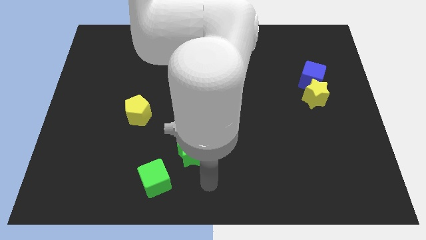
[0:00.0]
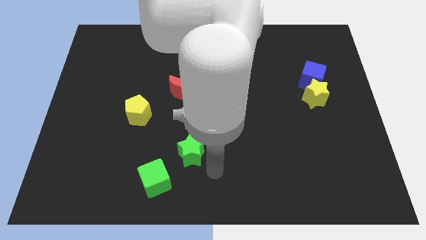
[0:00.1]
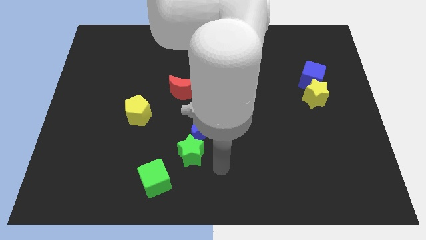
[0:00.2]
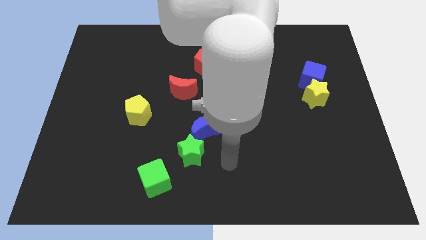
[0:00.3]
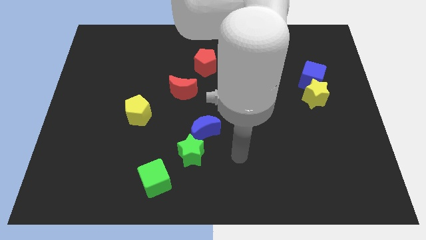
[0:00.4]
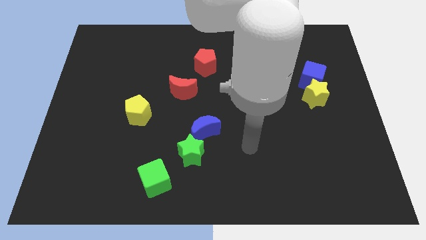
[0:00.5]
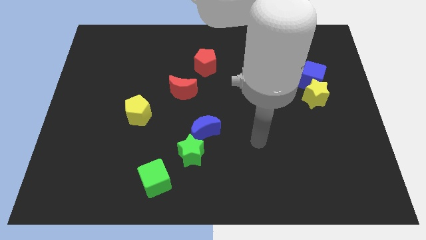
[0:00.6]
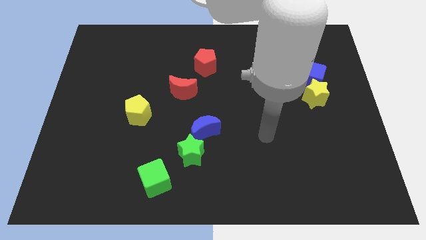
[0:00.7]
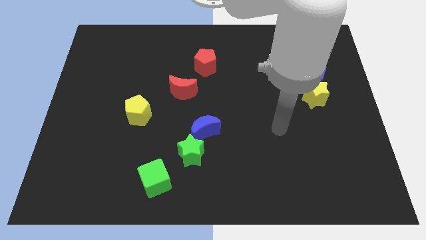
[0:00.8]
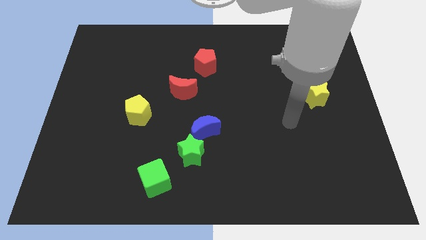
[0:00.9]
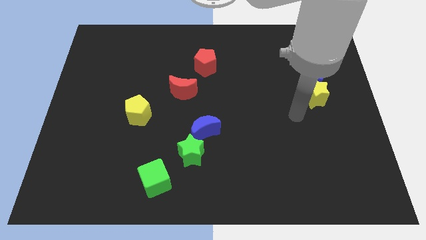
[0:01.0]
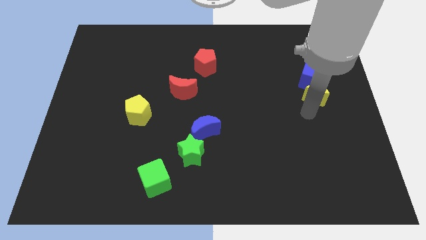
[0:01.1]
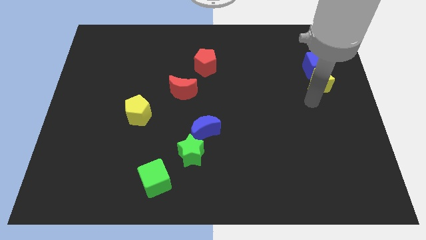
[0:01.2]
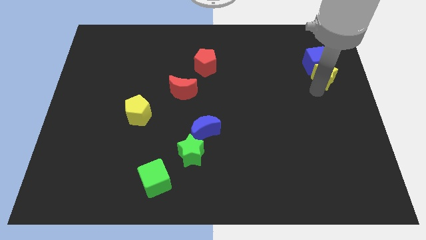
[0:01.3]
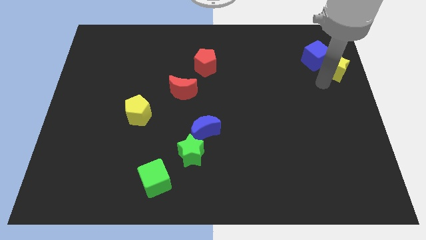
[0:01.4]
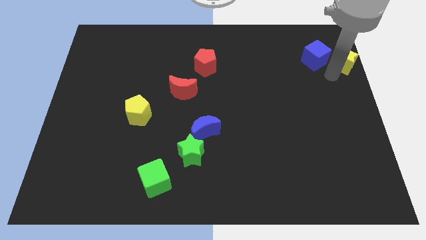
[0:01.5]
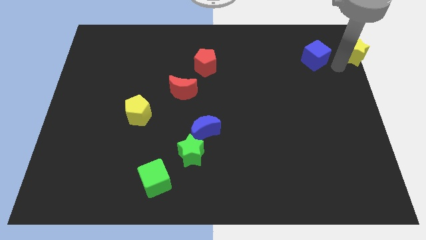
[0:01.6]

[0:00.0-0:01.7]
move the blue cube away from the yellow star

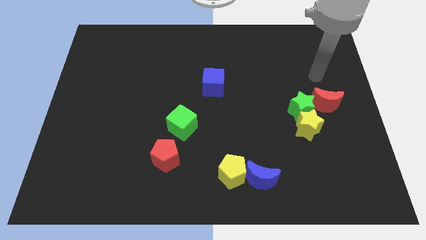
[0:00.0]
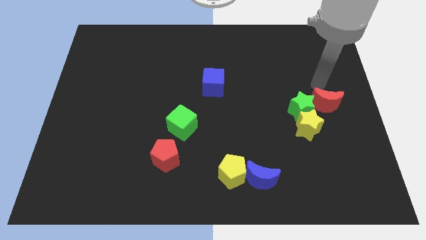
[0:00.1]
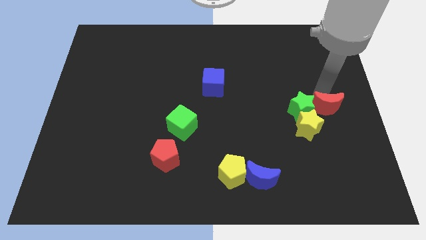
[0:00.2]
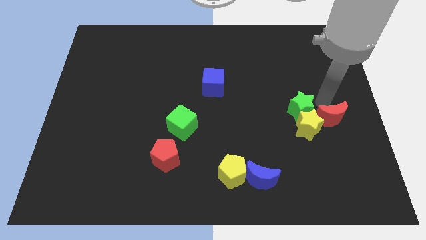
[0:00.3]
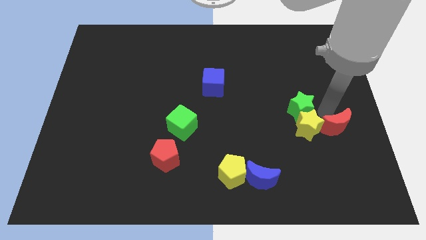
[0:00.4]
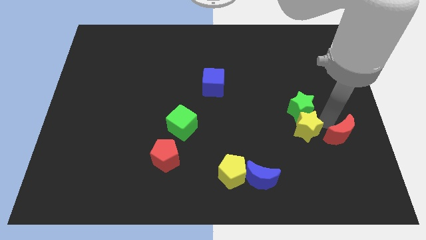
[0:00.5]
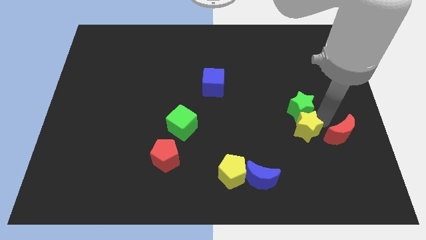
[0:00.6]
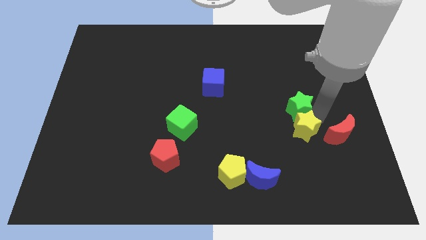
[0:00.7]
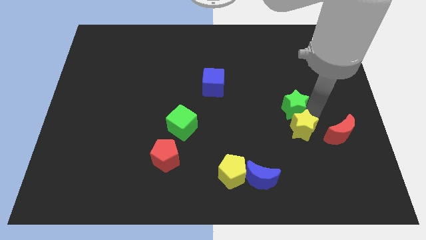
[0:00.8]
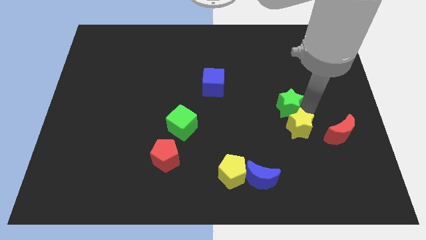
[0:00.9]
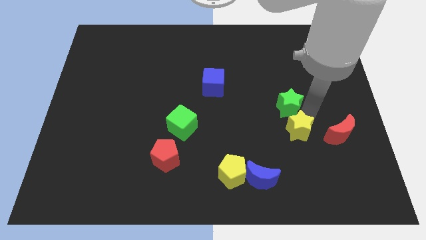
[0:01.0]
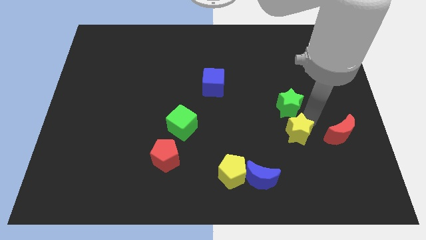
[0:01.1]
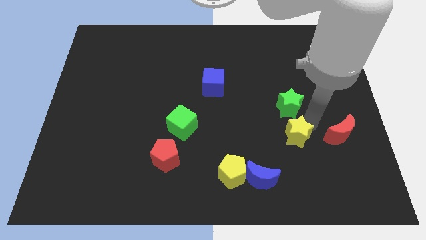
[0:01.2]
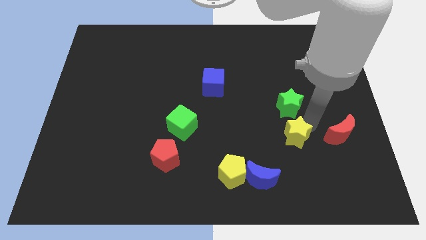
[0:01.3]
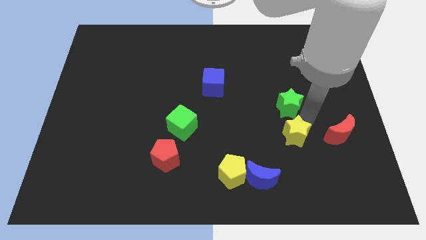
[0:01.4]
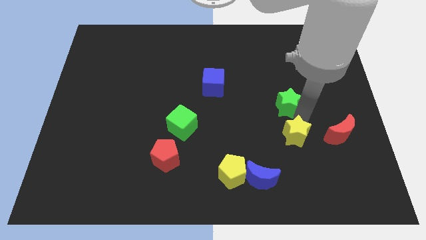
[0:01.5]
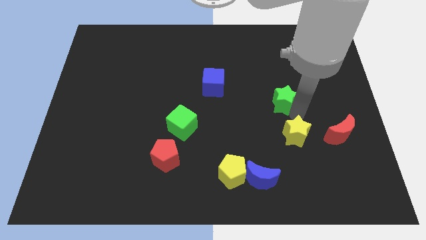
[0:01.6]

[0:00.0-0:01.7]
pull the green star apart from the yellow star and red moon

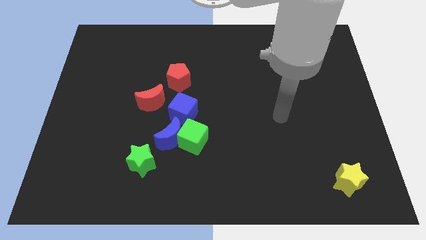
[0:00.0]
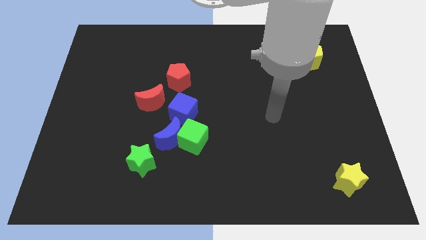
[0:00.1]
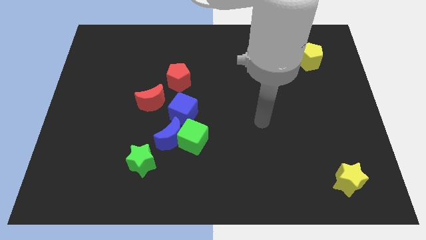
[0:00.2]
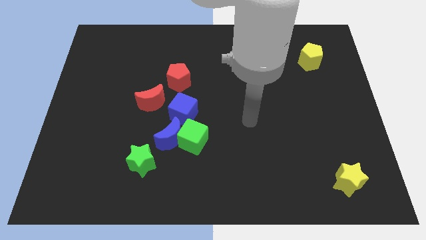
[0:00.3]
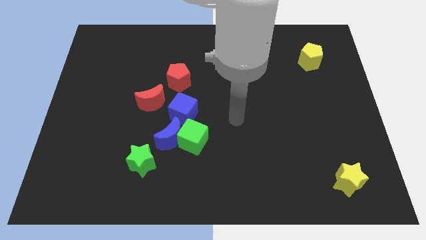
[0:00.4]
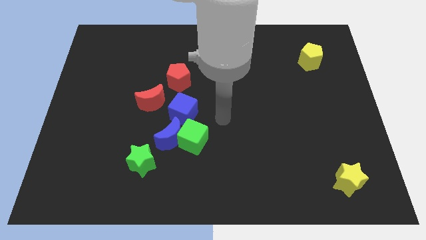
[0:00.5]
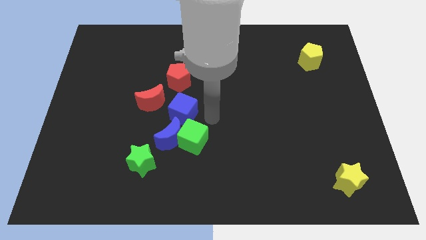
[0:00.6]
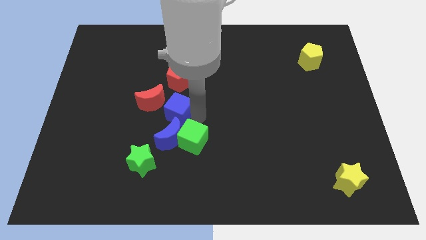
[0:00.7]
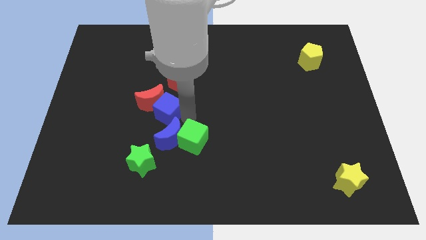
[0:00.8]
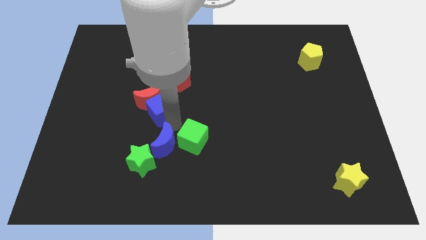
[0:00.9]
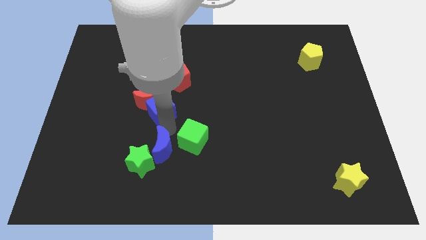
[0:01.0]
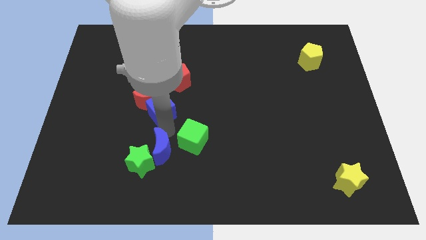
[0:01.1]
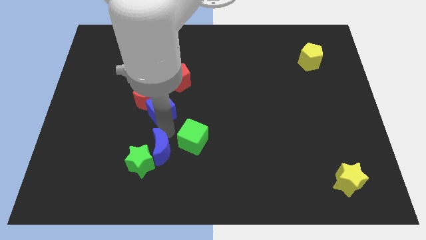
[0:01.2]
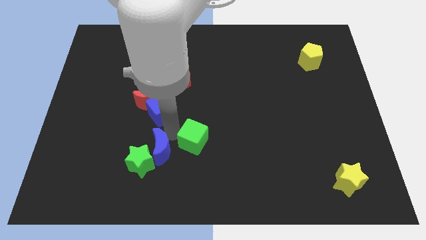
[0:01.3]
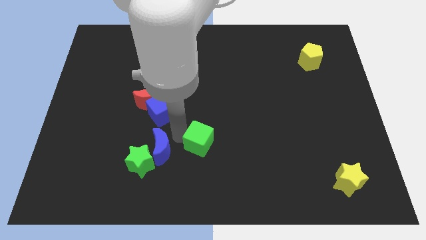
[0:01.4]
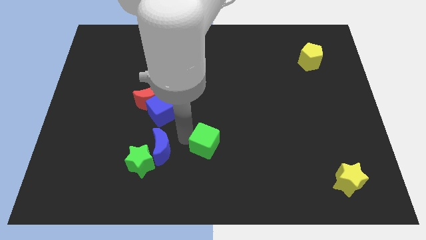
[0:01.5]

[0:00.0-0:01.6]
pull the green cube apart from the blue moon and blue cube

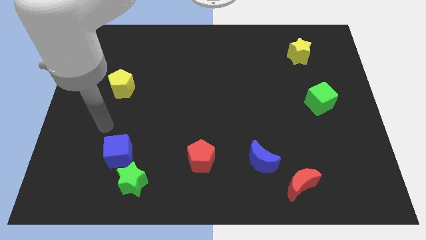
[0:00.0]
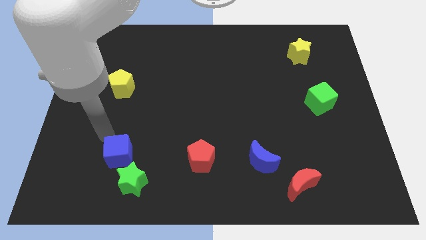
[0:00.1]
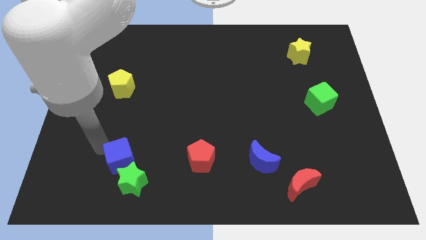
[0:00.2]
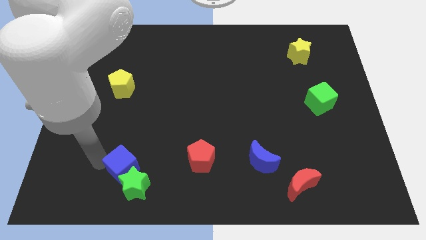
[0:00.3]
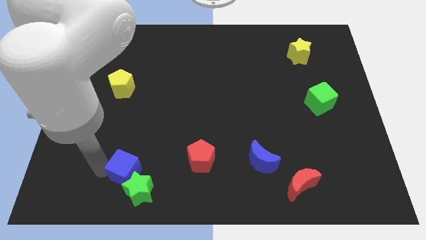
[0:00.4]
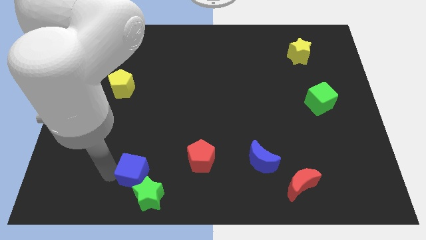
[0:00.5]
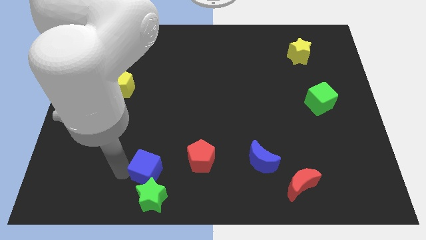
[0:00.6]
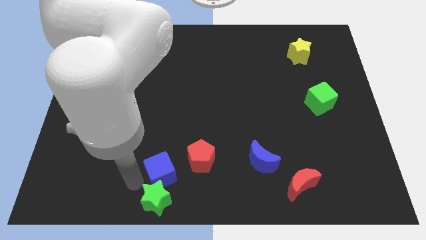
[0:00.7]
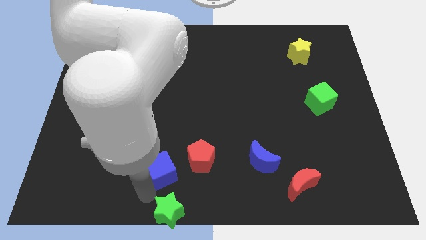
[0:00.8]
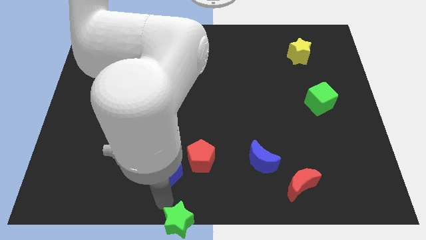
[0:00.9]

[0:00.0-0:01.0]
separate the blue cube from the green star

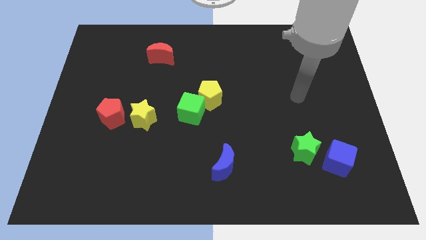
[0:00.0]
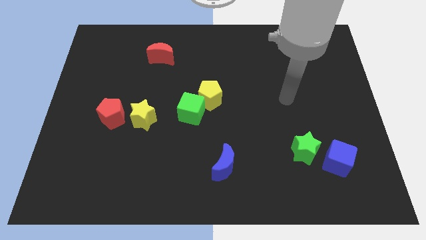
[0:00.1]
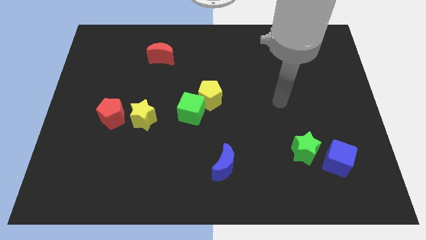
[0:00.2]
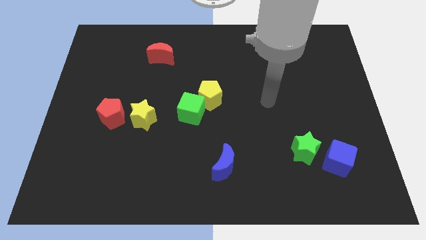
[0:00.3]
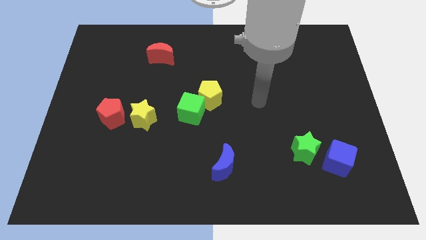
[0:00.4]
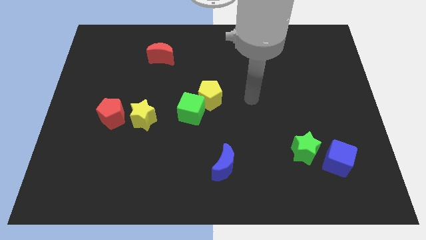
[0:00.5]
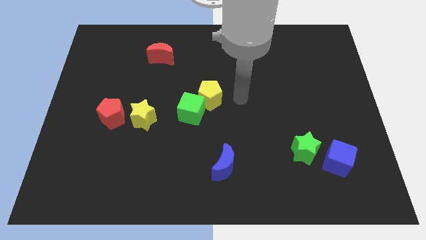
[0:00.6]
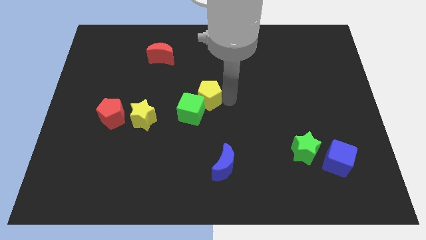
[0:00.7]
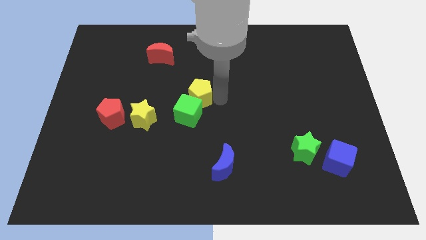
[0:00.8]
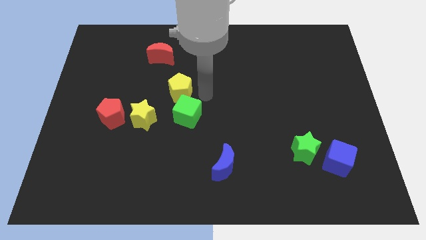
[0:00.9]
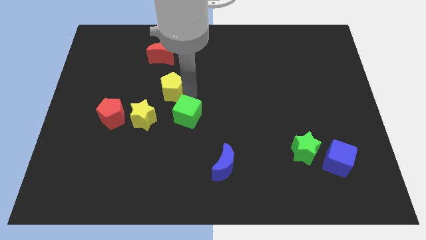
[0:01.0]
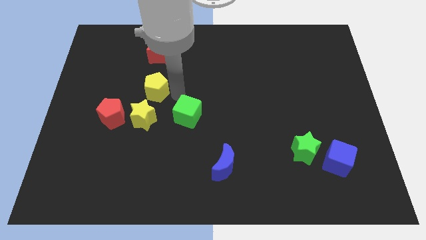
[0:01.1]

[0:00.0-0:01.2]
move the green cube away from the yellow pentagon

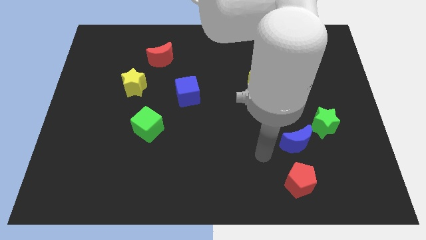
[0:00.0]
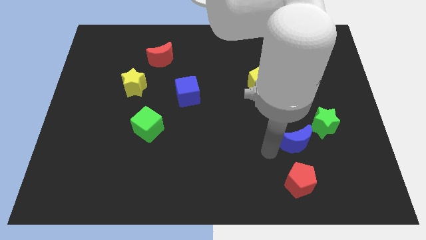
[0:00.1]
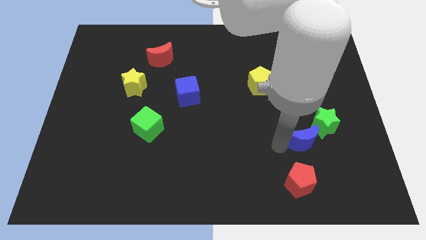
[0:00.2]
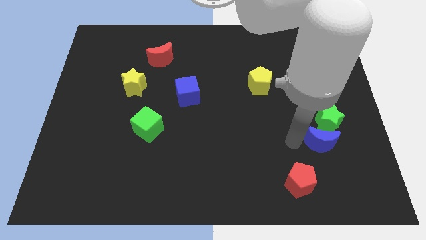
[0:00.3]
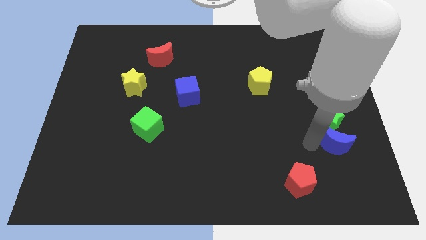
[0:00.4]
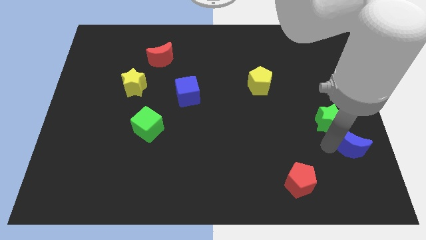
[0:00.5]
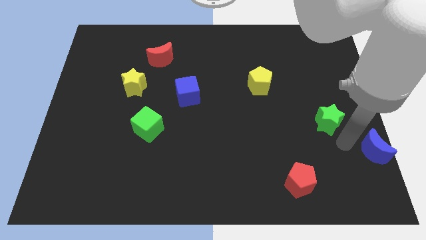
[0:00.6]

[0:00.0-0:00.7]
separate the green star from the blue moon

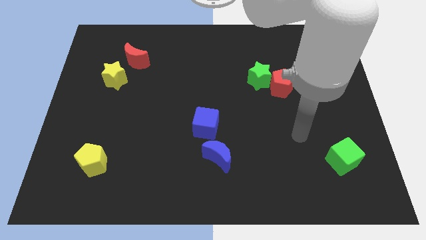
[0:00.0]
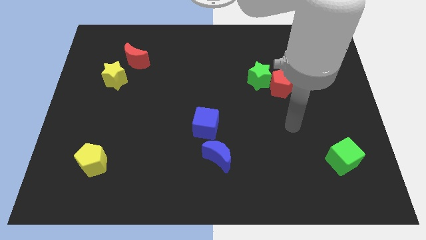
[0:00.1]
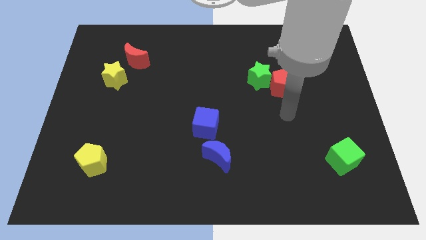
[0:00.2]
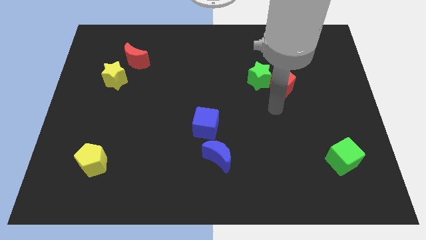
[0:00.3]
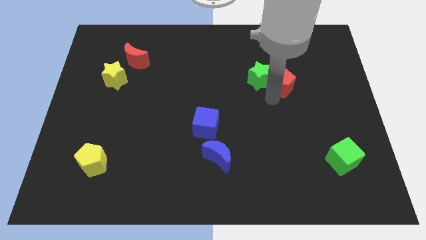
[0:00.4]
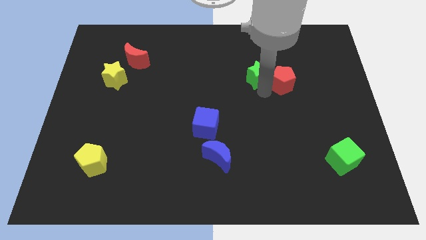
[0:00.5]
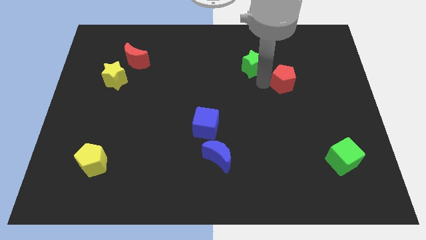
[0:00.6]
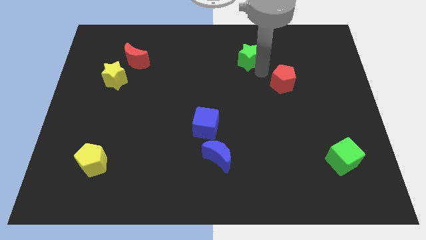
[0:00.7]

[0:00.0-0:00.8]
pull the red pentagon apart from the green star

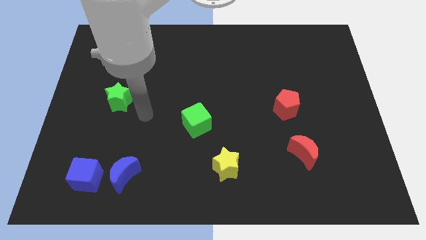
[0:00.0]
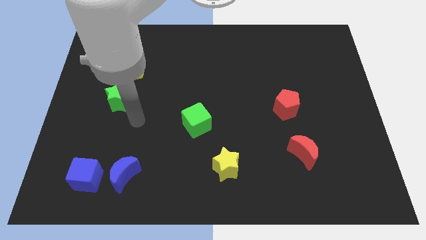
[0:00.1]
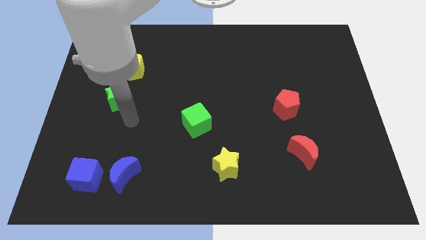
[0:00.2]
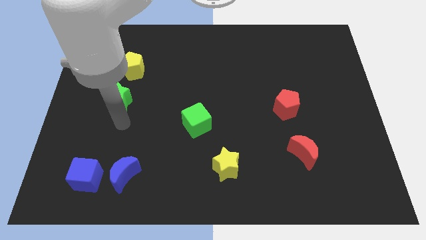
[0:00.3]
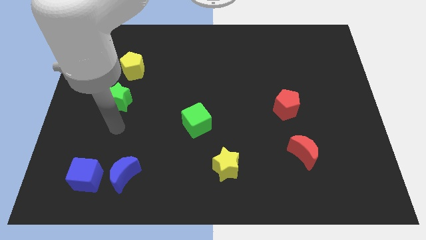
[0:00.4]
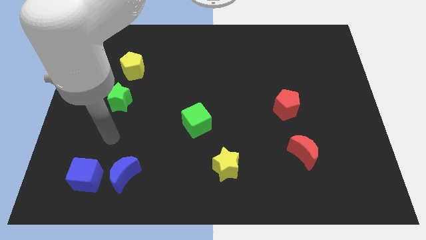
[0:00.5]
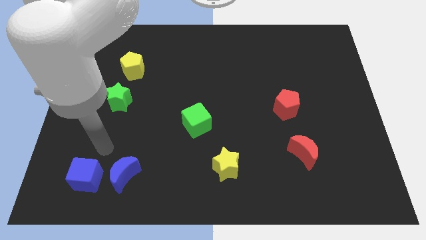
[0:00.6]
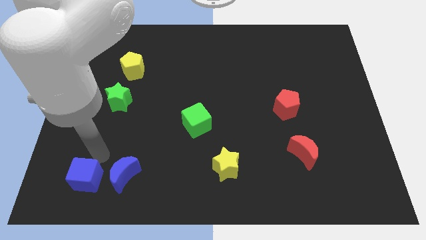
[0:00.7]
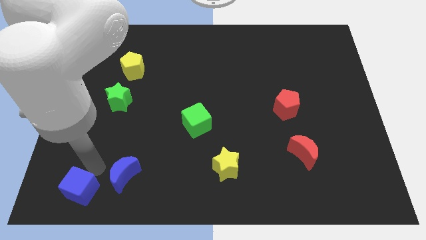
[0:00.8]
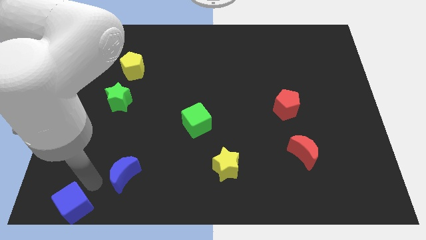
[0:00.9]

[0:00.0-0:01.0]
separate the blue moon from the blue cube
